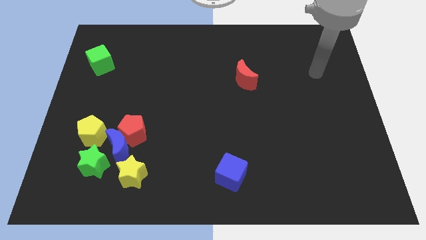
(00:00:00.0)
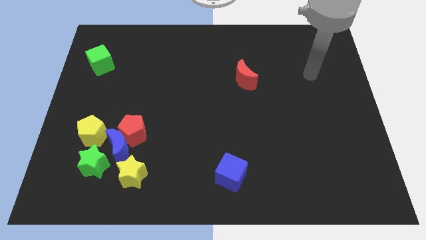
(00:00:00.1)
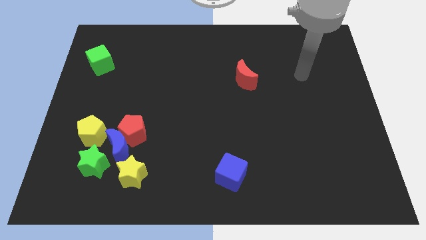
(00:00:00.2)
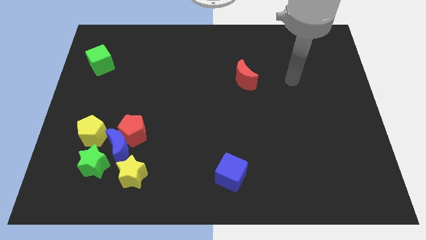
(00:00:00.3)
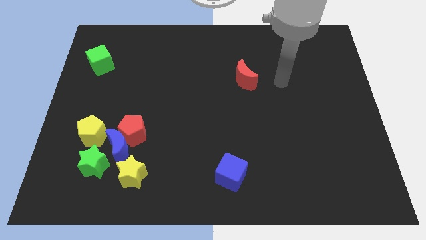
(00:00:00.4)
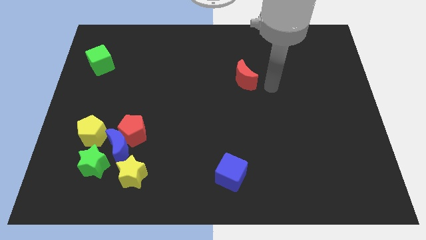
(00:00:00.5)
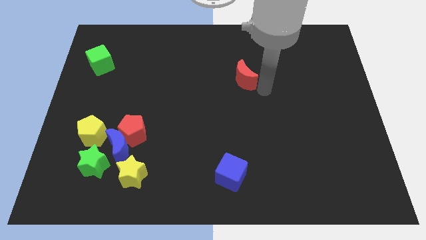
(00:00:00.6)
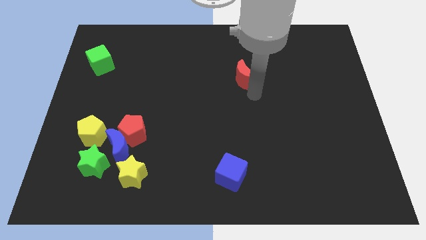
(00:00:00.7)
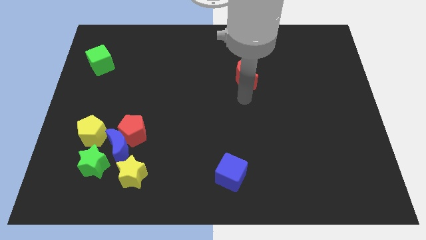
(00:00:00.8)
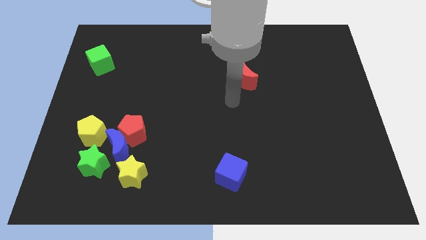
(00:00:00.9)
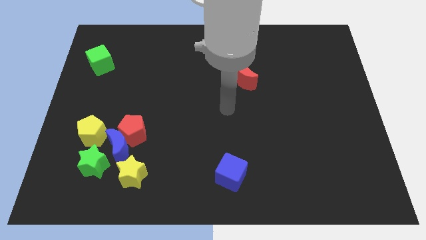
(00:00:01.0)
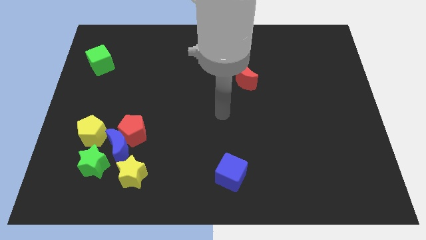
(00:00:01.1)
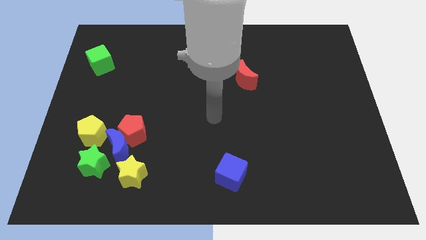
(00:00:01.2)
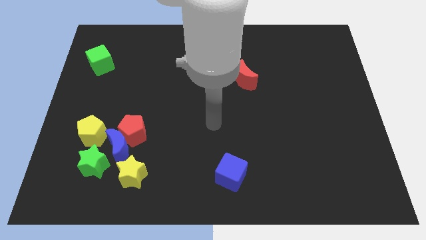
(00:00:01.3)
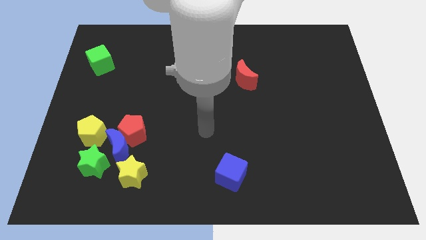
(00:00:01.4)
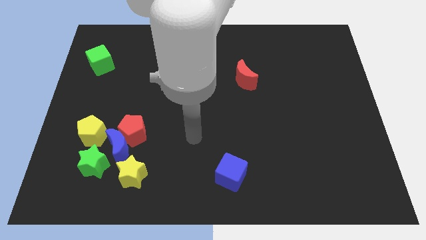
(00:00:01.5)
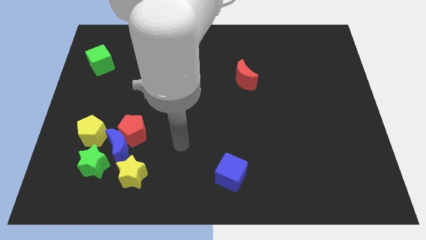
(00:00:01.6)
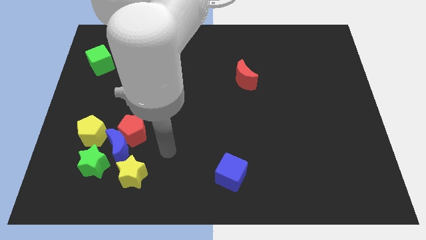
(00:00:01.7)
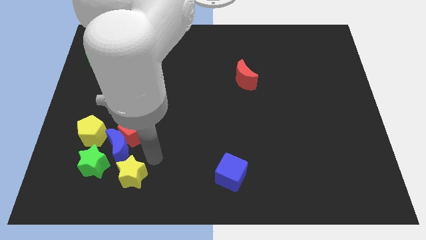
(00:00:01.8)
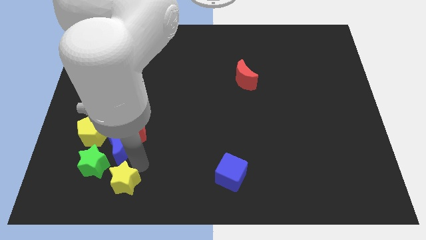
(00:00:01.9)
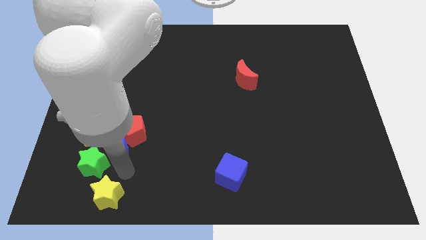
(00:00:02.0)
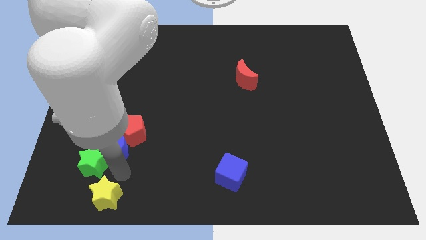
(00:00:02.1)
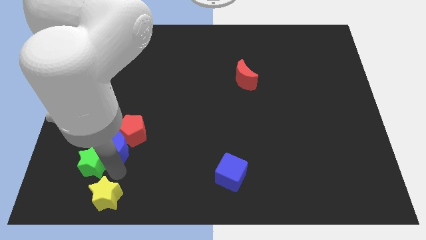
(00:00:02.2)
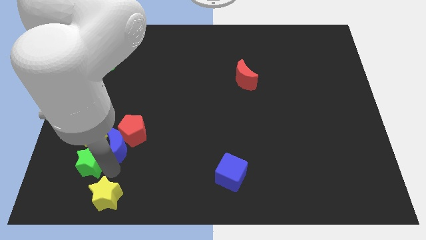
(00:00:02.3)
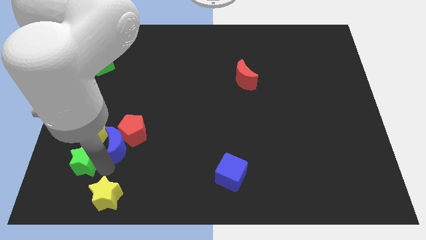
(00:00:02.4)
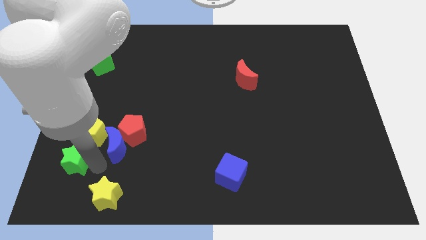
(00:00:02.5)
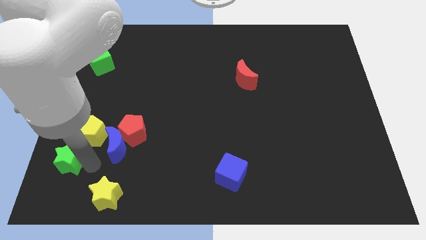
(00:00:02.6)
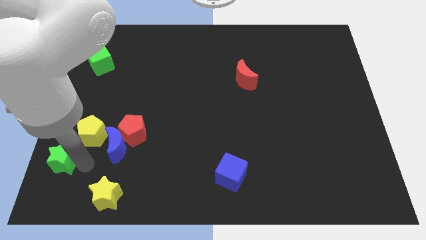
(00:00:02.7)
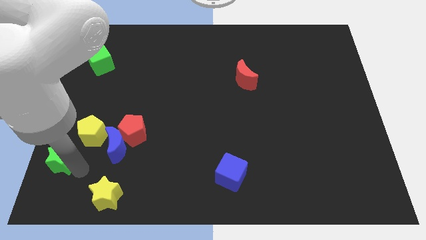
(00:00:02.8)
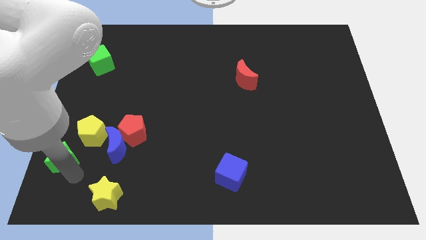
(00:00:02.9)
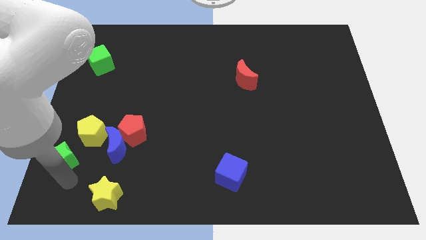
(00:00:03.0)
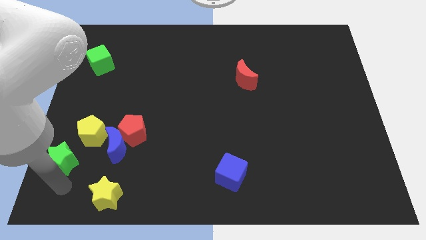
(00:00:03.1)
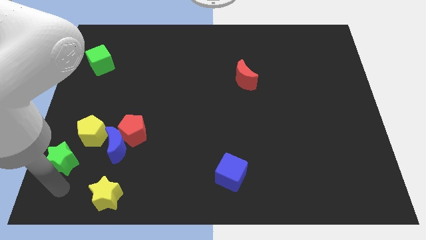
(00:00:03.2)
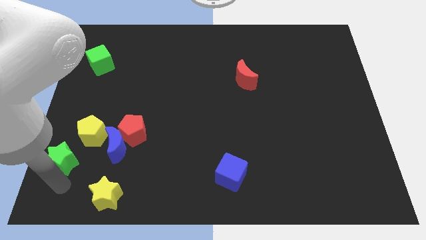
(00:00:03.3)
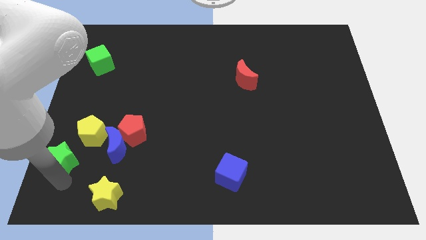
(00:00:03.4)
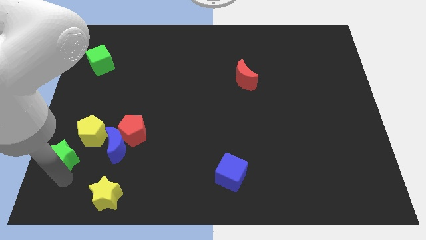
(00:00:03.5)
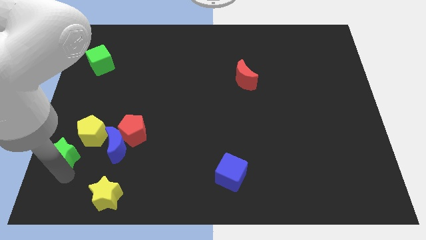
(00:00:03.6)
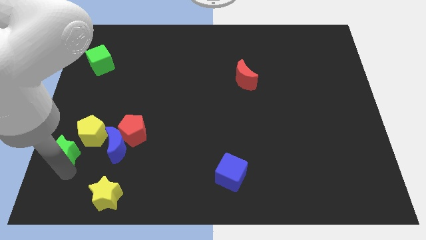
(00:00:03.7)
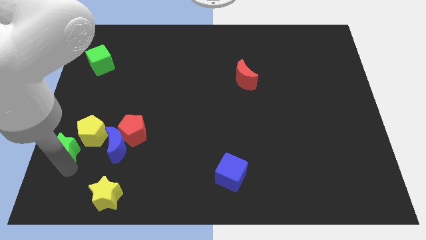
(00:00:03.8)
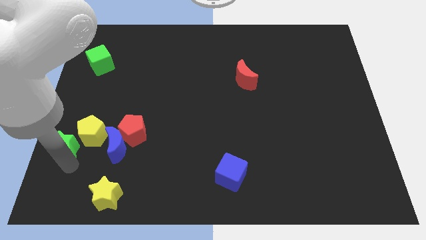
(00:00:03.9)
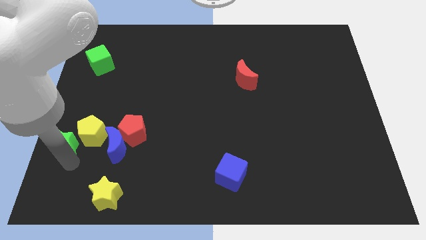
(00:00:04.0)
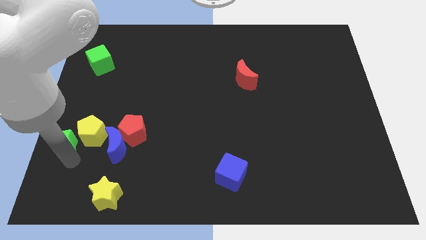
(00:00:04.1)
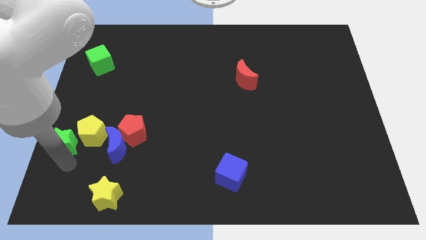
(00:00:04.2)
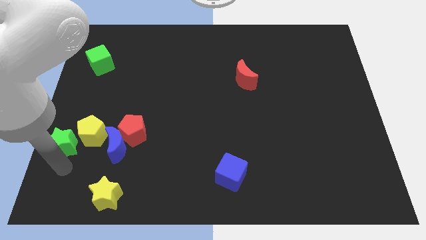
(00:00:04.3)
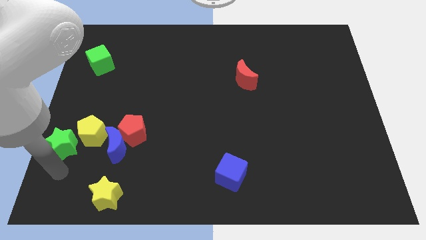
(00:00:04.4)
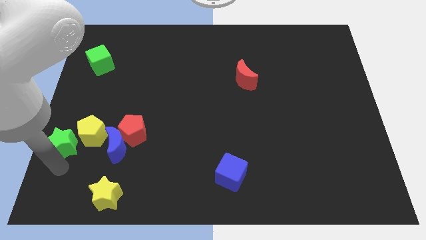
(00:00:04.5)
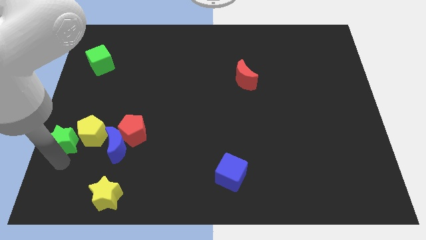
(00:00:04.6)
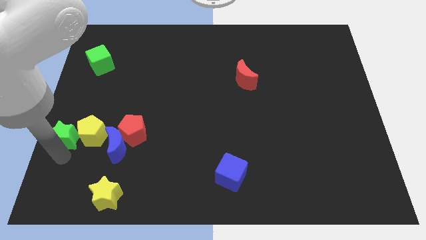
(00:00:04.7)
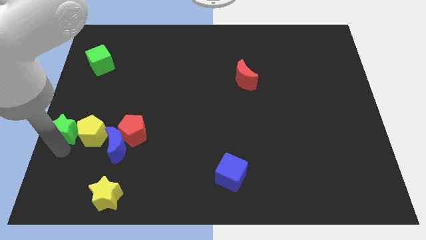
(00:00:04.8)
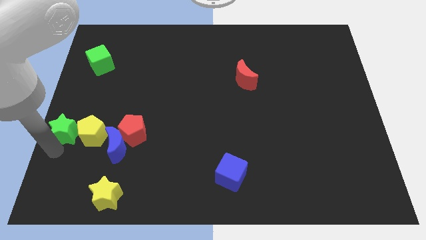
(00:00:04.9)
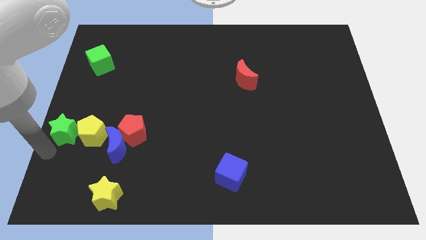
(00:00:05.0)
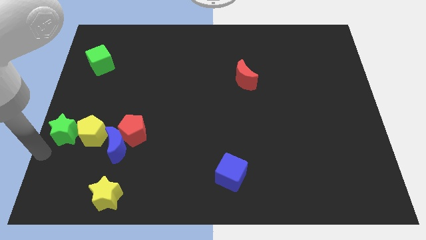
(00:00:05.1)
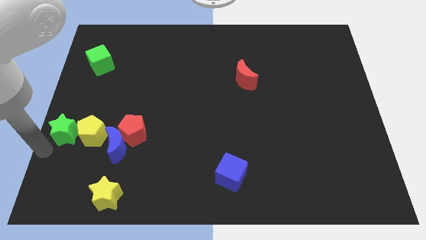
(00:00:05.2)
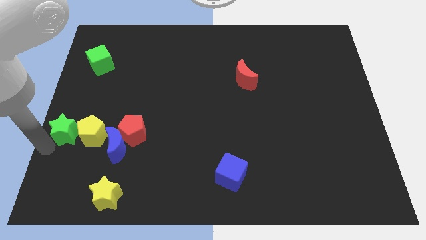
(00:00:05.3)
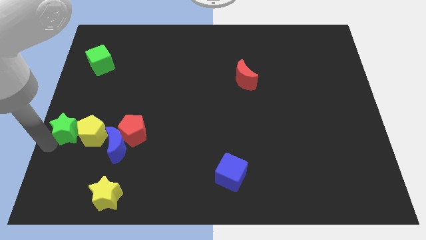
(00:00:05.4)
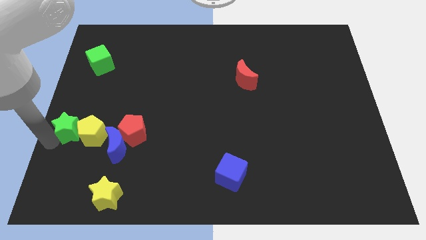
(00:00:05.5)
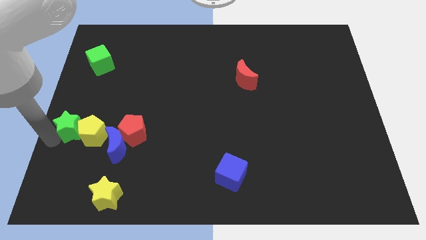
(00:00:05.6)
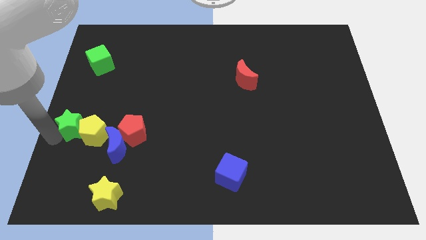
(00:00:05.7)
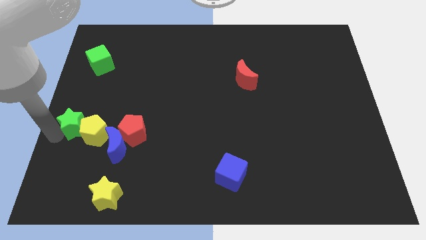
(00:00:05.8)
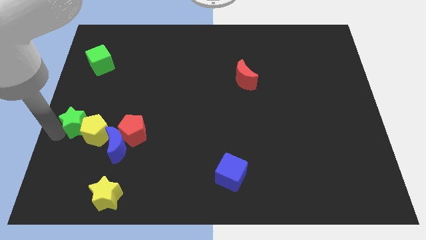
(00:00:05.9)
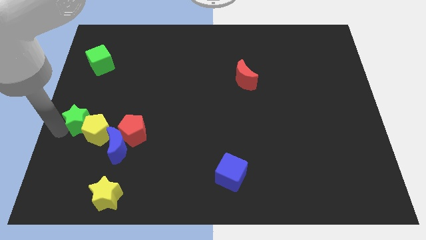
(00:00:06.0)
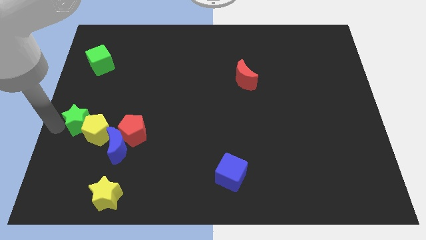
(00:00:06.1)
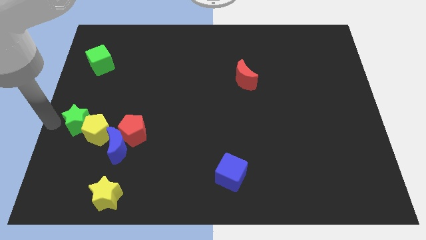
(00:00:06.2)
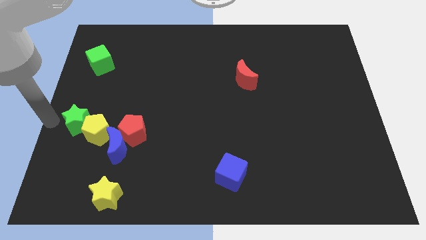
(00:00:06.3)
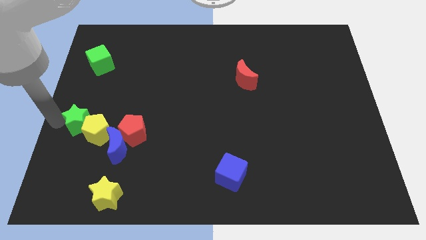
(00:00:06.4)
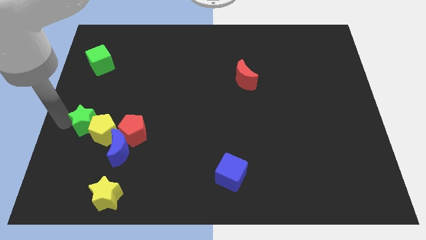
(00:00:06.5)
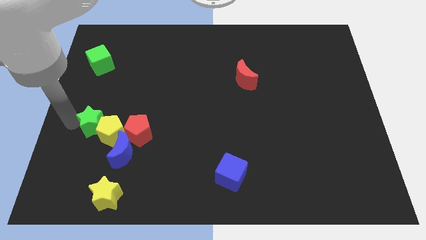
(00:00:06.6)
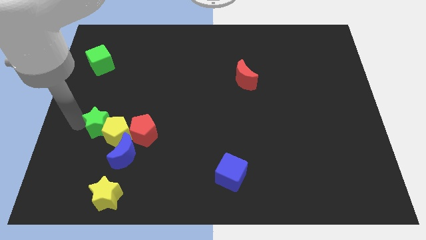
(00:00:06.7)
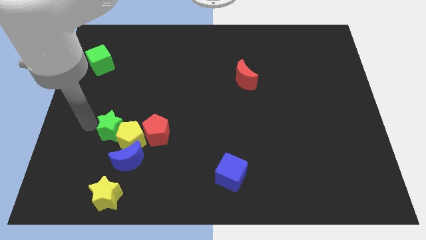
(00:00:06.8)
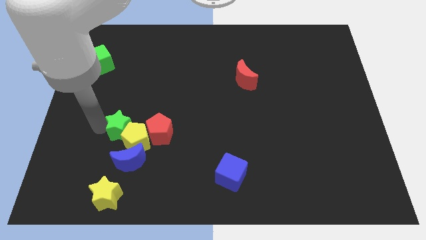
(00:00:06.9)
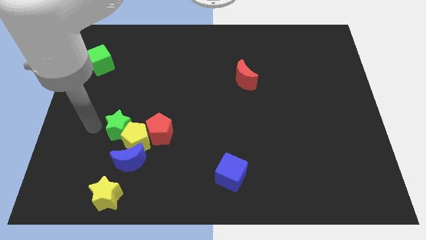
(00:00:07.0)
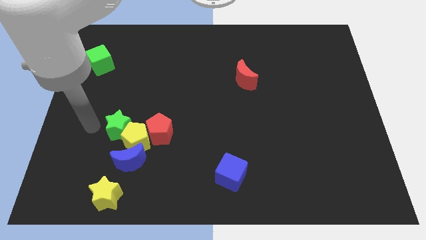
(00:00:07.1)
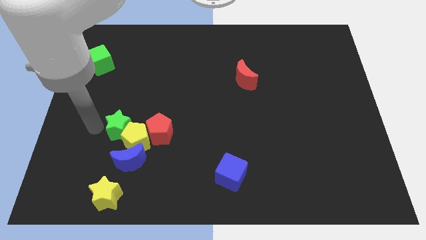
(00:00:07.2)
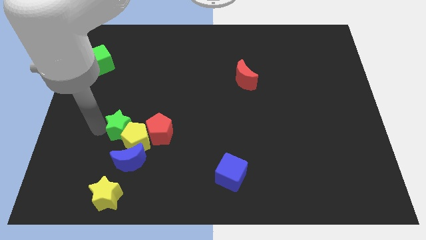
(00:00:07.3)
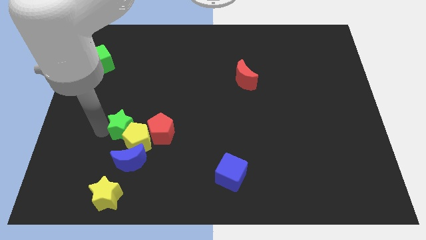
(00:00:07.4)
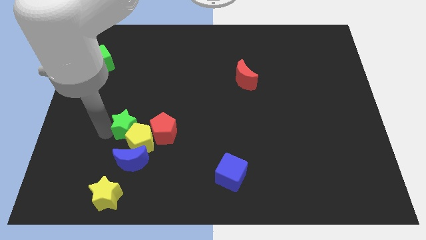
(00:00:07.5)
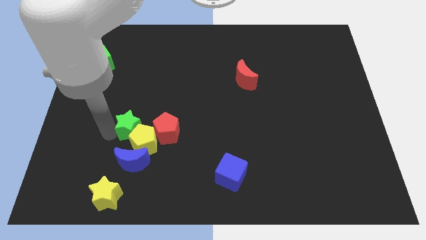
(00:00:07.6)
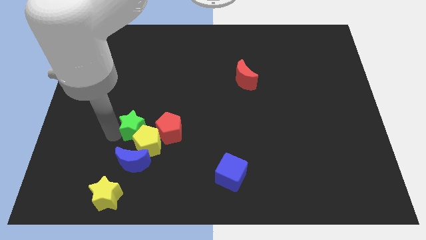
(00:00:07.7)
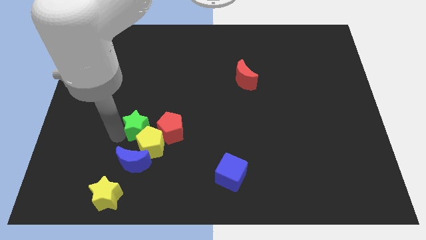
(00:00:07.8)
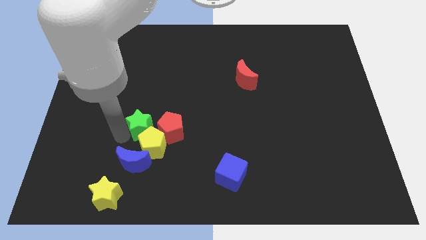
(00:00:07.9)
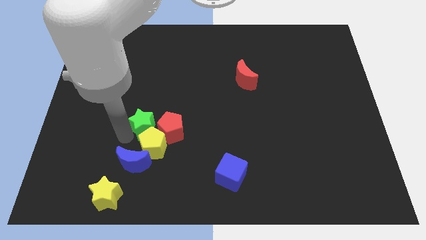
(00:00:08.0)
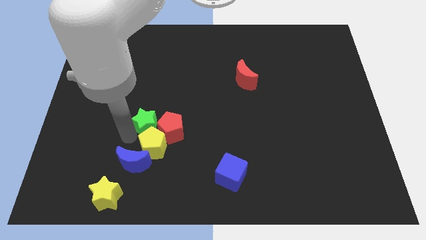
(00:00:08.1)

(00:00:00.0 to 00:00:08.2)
slide the green star next to the red pentagon
